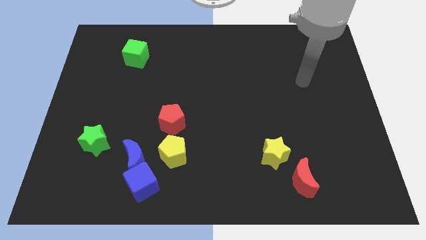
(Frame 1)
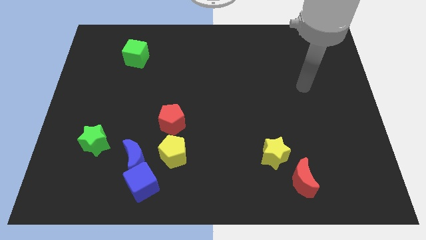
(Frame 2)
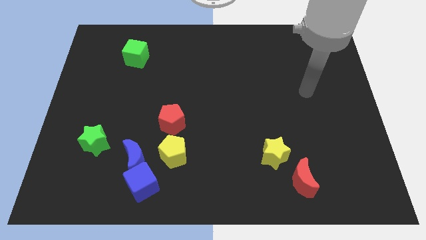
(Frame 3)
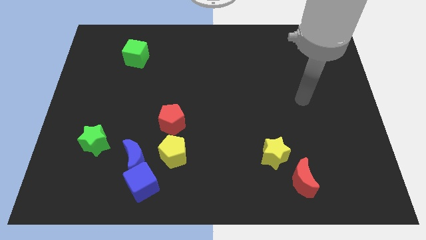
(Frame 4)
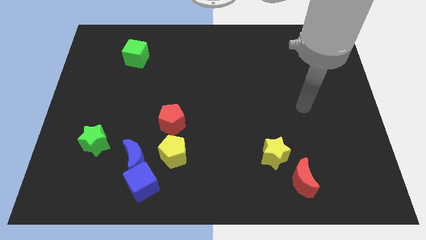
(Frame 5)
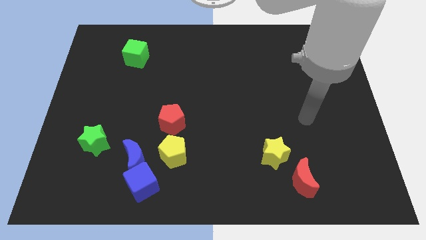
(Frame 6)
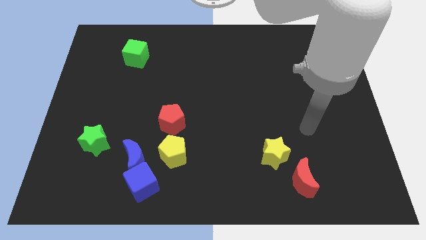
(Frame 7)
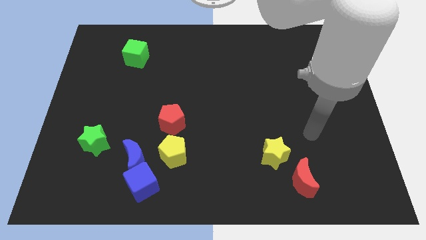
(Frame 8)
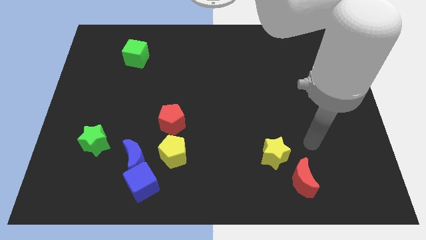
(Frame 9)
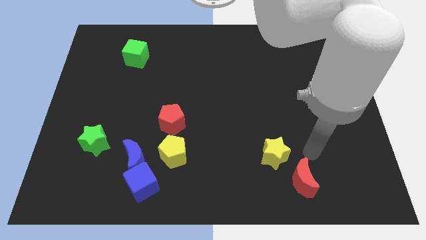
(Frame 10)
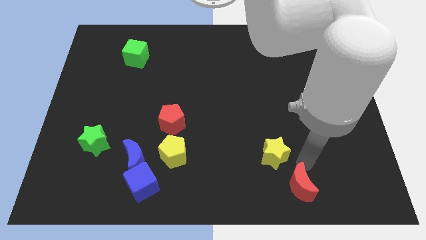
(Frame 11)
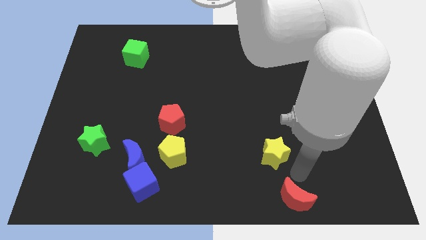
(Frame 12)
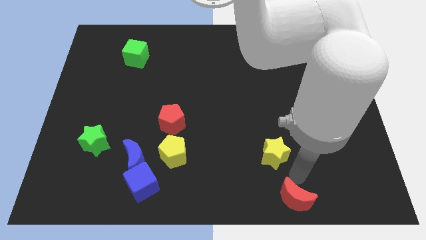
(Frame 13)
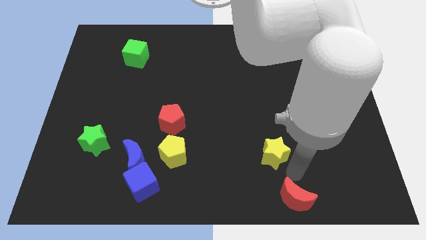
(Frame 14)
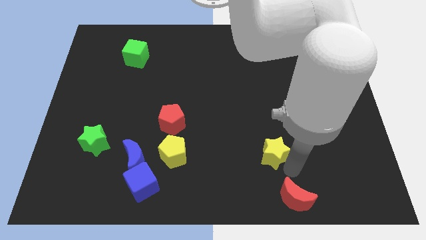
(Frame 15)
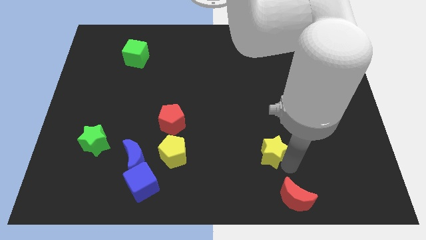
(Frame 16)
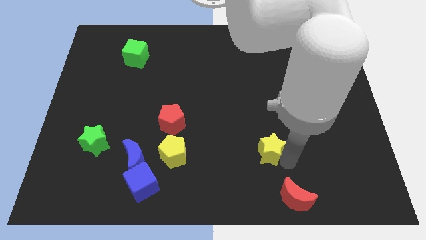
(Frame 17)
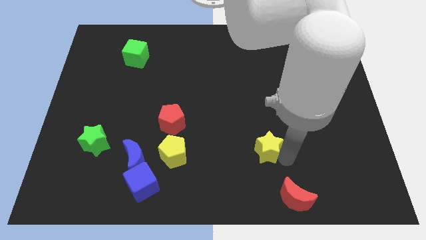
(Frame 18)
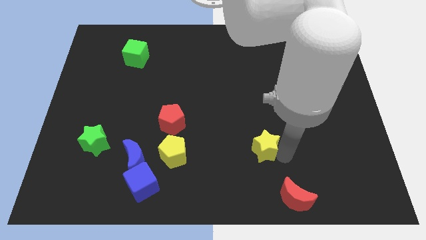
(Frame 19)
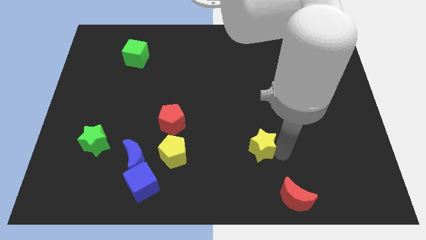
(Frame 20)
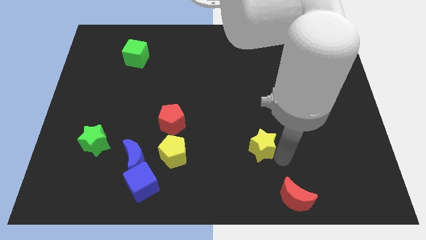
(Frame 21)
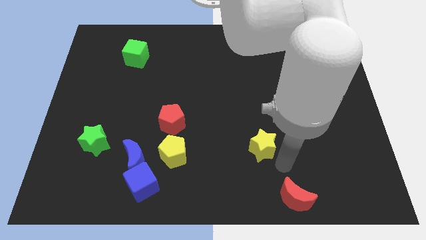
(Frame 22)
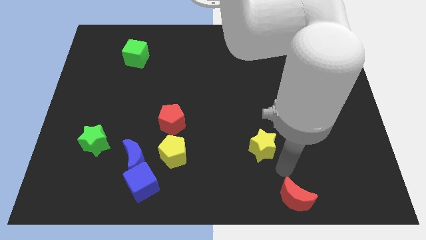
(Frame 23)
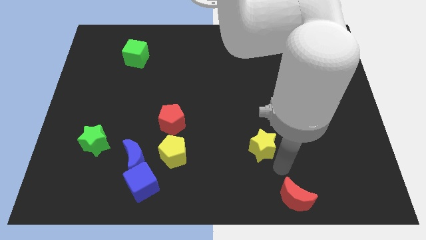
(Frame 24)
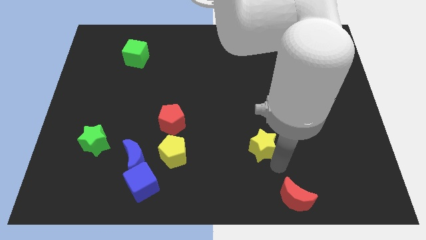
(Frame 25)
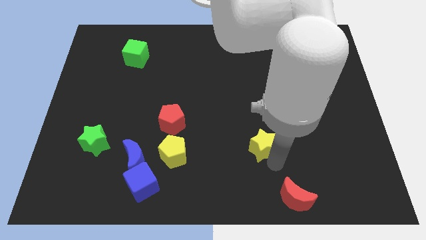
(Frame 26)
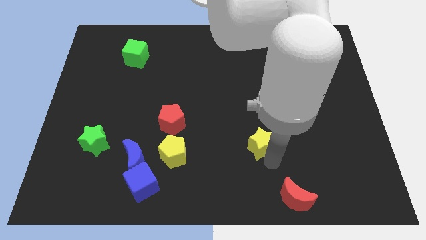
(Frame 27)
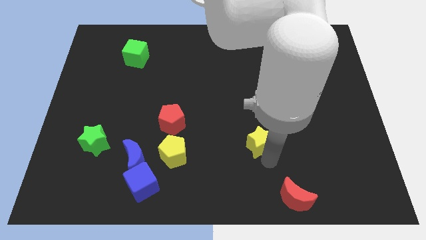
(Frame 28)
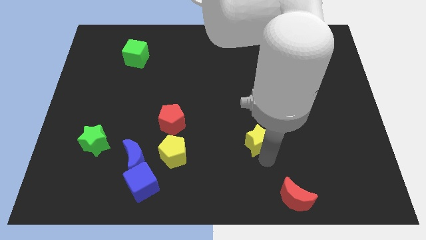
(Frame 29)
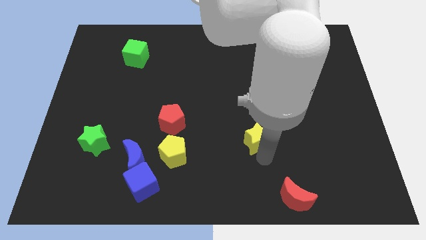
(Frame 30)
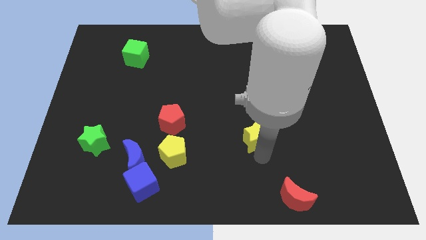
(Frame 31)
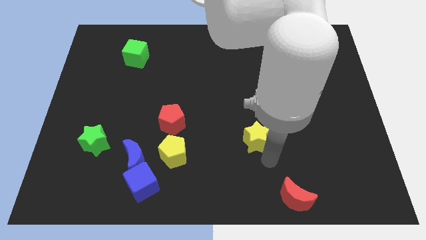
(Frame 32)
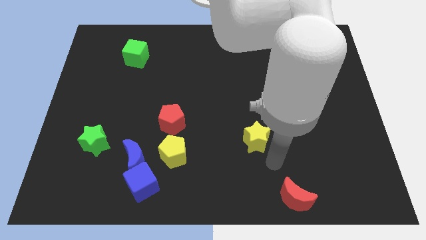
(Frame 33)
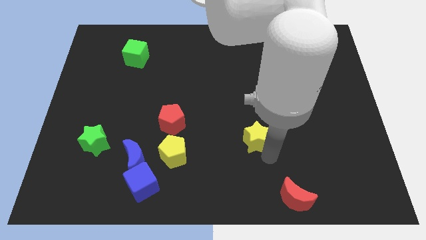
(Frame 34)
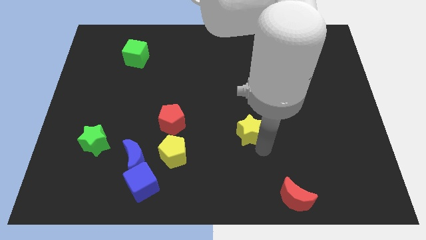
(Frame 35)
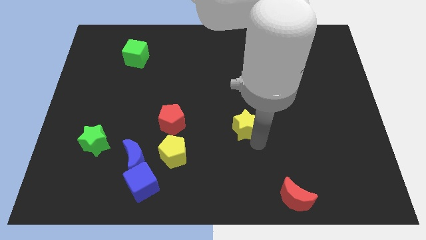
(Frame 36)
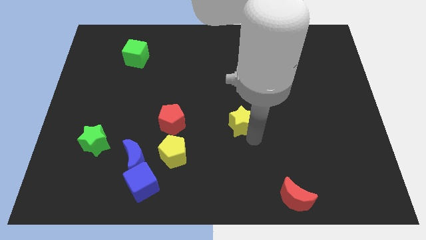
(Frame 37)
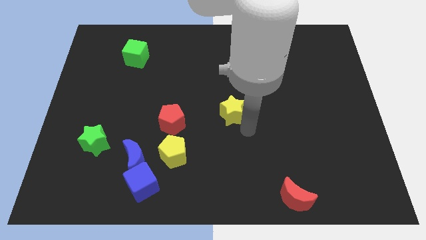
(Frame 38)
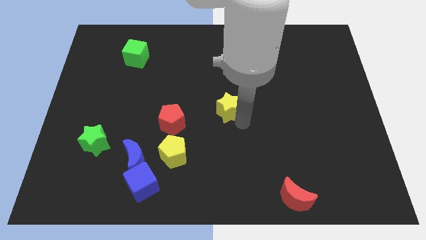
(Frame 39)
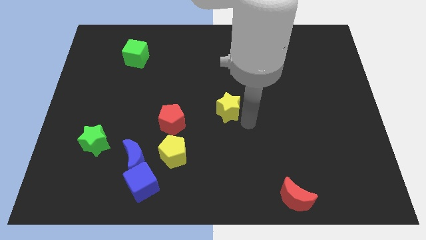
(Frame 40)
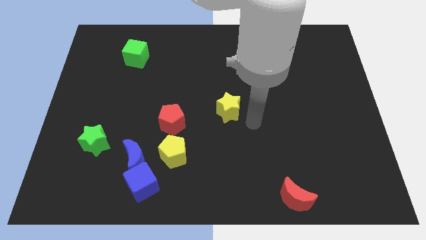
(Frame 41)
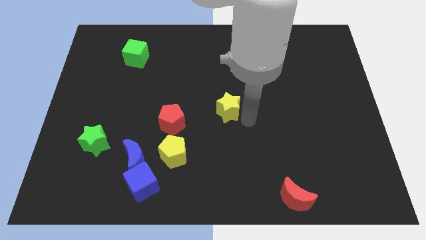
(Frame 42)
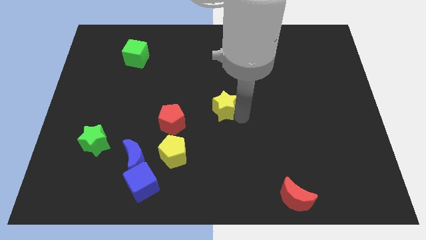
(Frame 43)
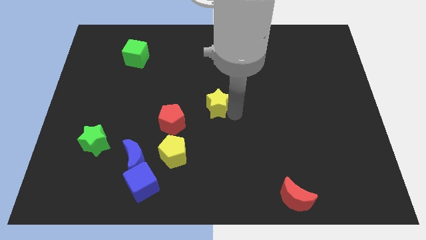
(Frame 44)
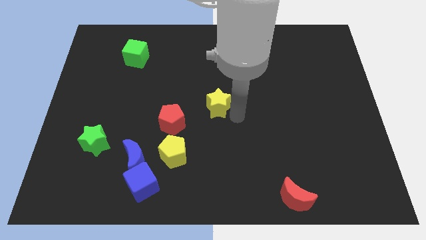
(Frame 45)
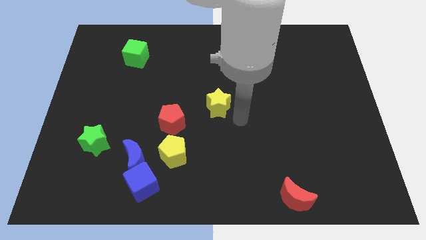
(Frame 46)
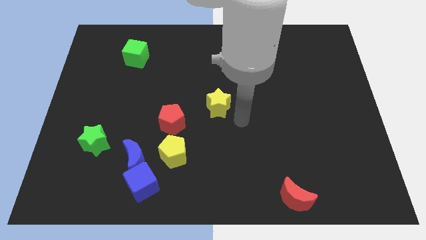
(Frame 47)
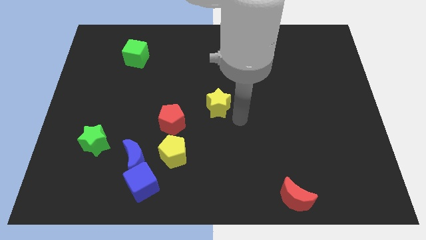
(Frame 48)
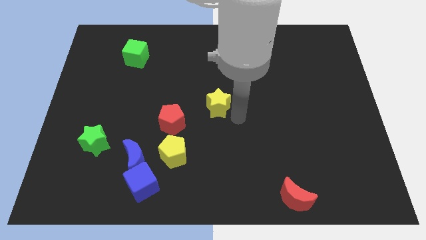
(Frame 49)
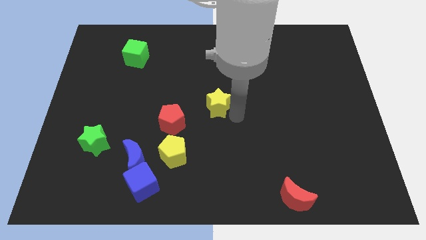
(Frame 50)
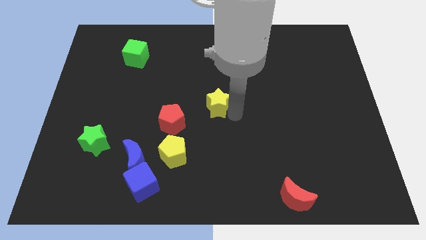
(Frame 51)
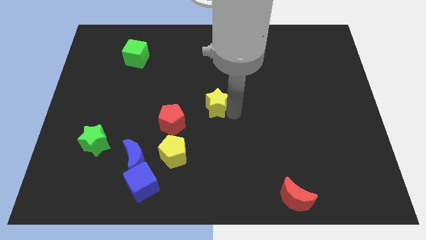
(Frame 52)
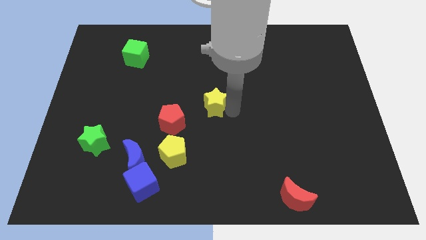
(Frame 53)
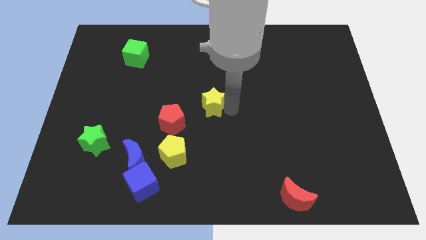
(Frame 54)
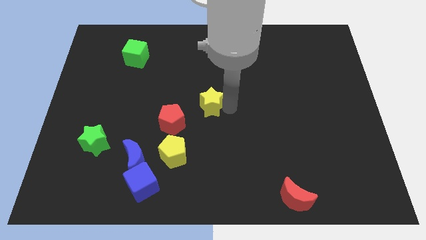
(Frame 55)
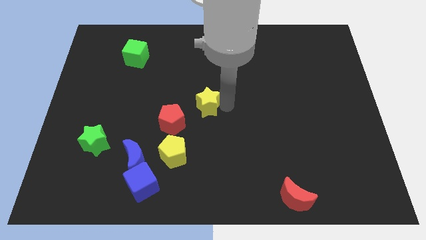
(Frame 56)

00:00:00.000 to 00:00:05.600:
slide the yellow star up and left diagonally

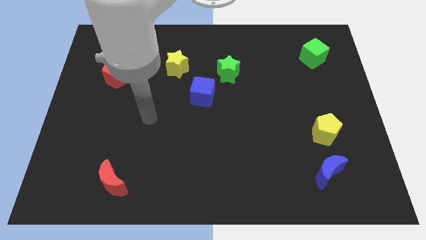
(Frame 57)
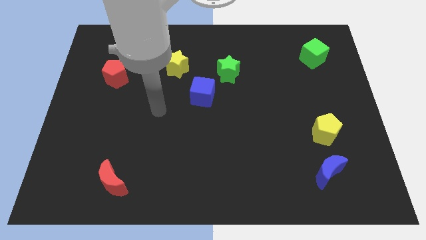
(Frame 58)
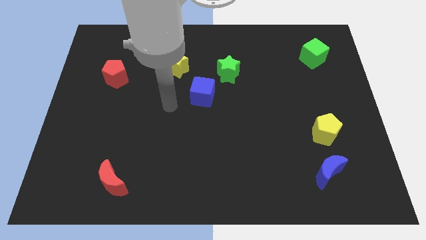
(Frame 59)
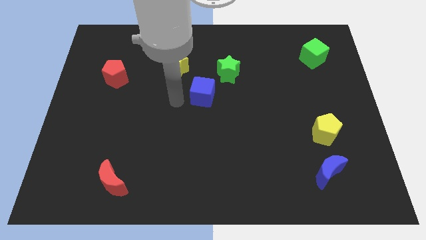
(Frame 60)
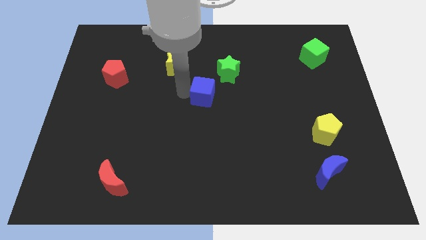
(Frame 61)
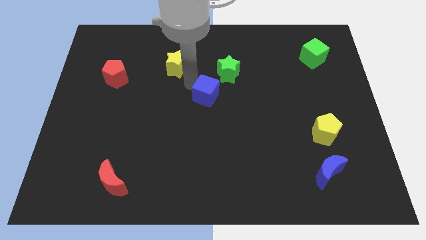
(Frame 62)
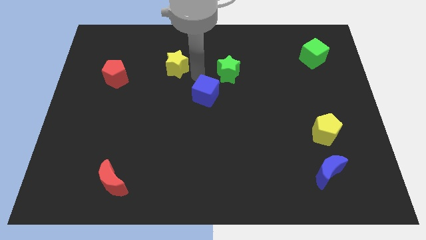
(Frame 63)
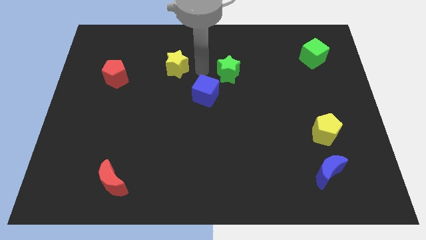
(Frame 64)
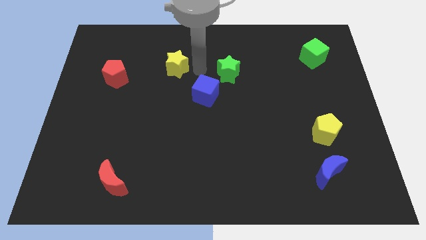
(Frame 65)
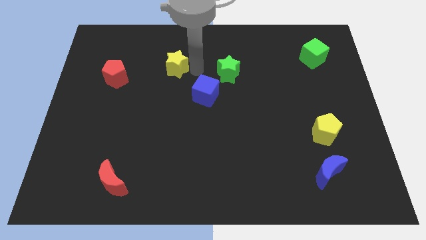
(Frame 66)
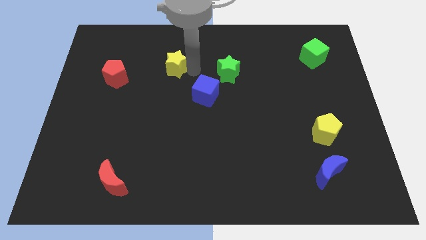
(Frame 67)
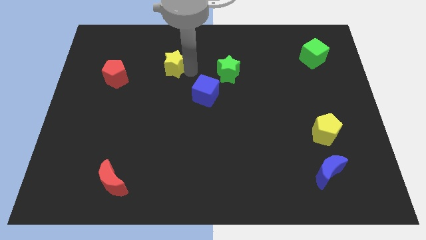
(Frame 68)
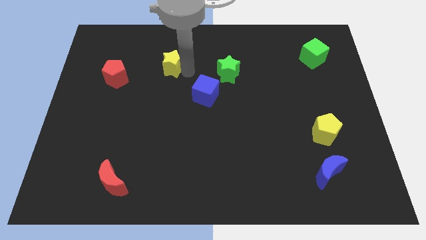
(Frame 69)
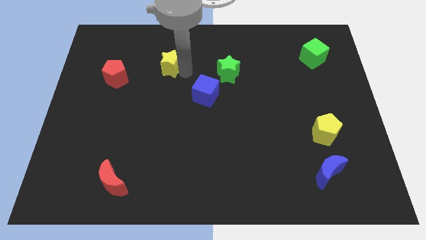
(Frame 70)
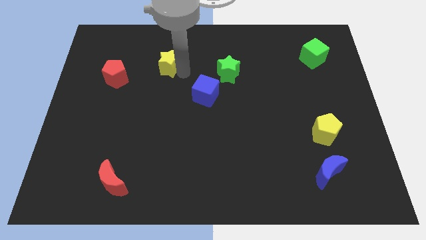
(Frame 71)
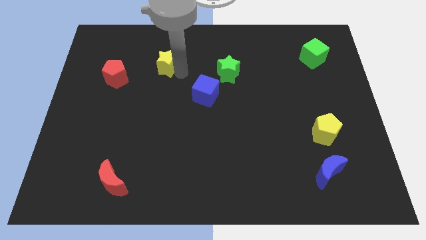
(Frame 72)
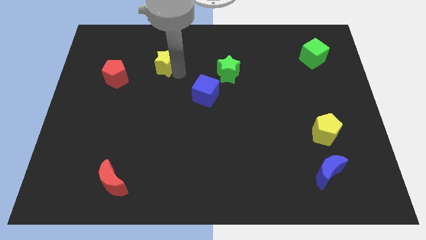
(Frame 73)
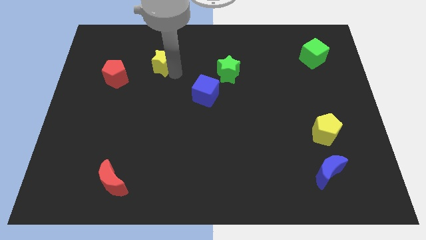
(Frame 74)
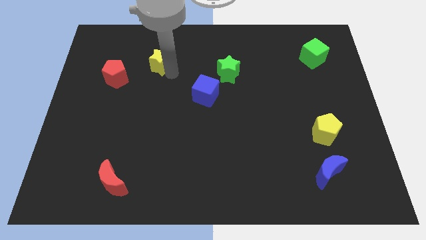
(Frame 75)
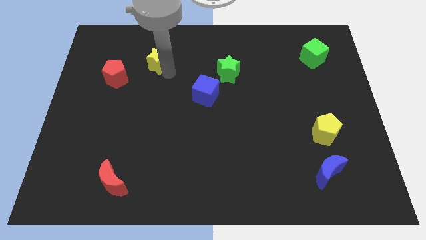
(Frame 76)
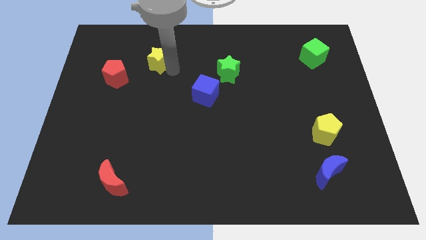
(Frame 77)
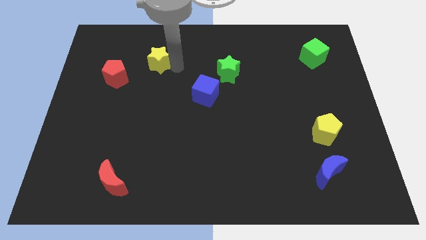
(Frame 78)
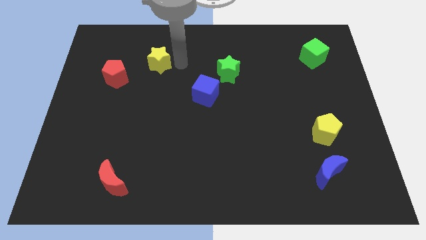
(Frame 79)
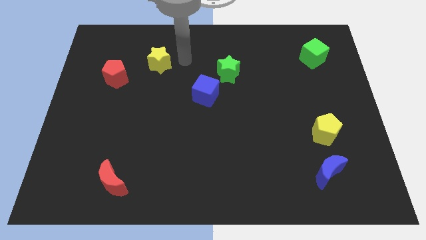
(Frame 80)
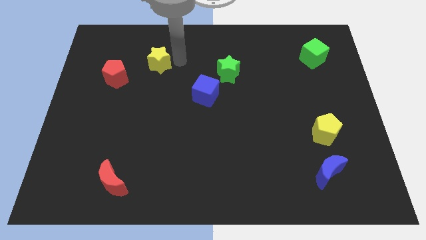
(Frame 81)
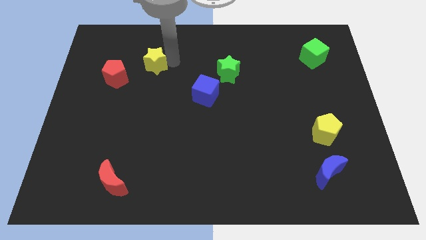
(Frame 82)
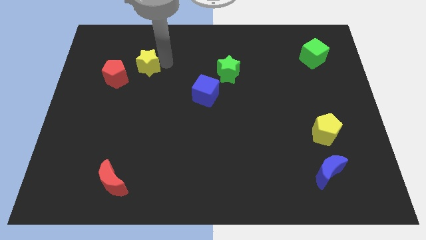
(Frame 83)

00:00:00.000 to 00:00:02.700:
slightly push the yellow star left

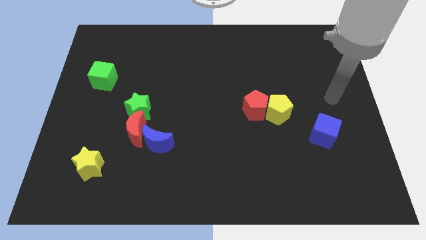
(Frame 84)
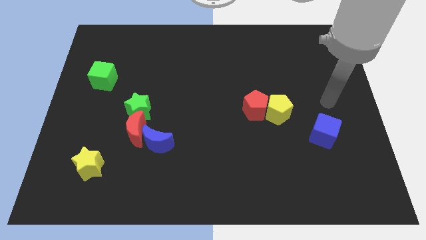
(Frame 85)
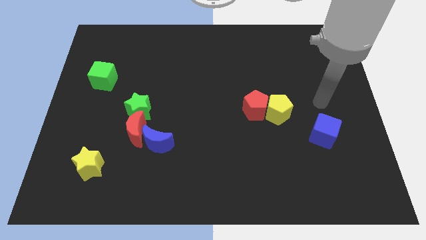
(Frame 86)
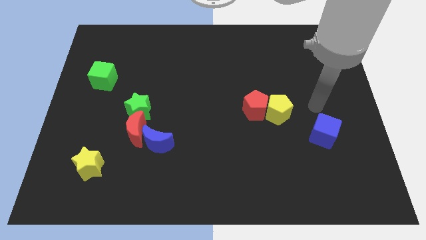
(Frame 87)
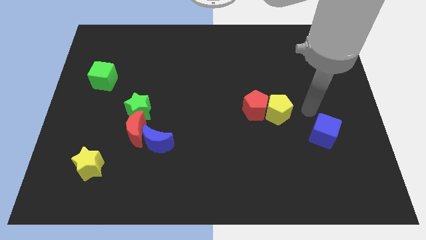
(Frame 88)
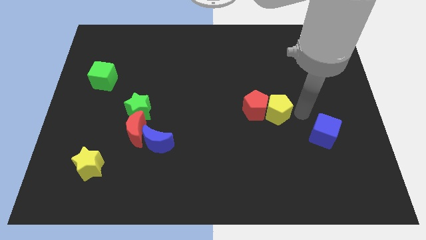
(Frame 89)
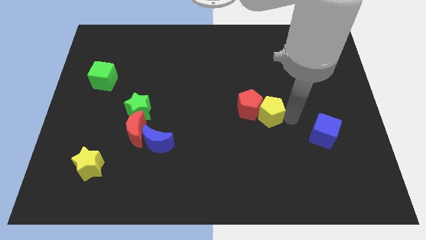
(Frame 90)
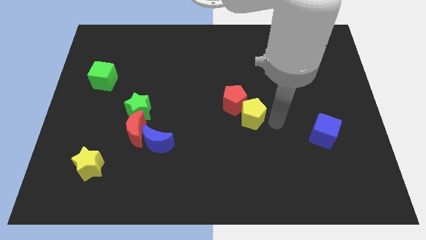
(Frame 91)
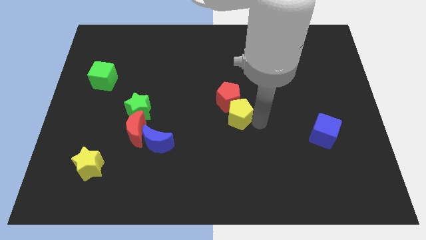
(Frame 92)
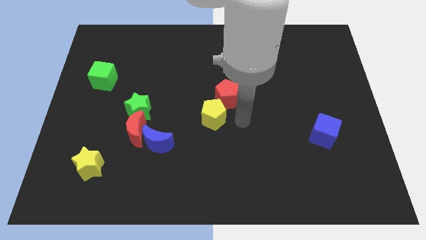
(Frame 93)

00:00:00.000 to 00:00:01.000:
move the red pentagon up and then left somewhat
